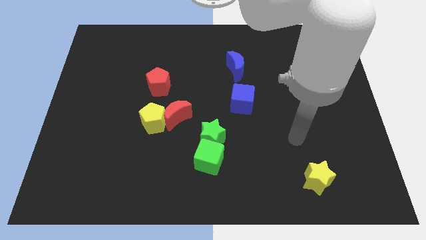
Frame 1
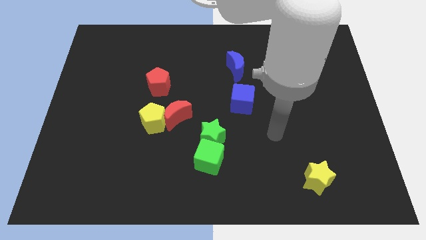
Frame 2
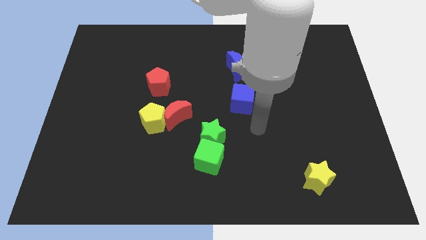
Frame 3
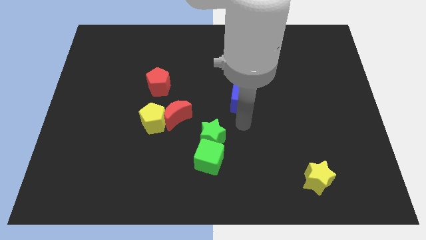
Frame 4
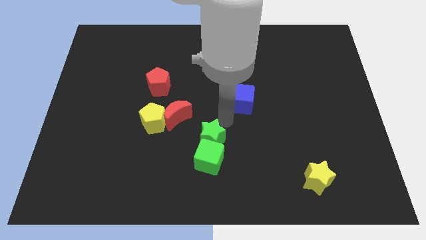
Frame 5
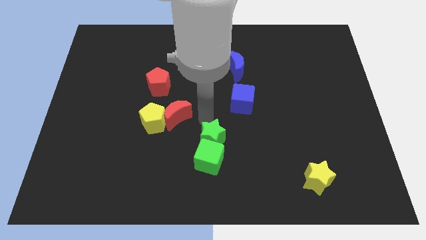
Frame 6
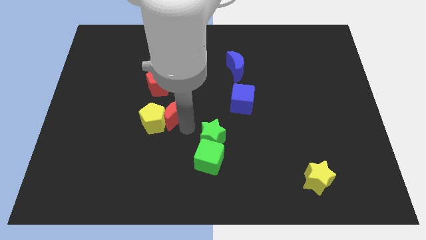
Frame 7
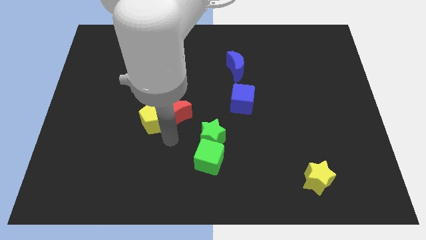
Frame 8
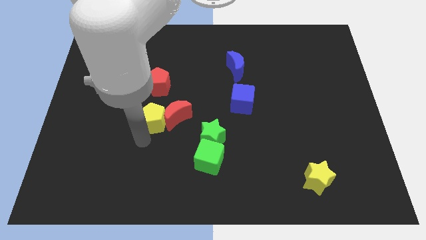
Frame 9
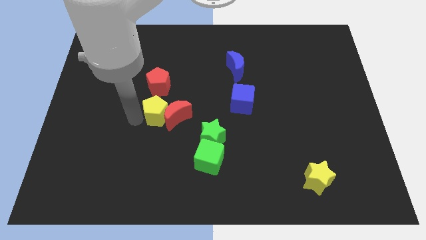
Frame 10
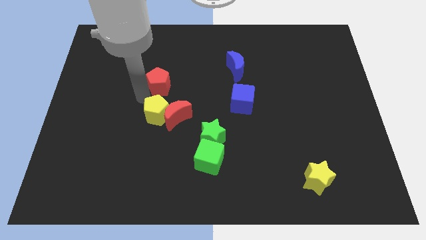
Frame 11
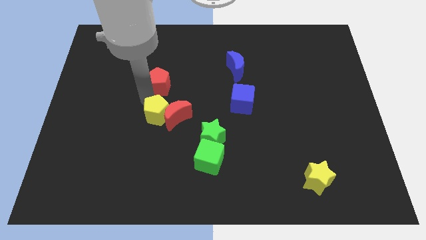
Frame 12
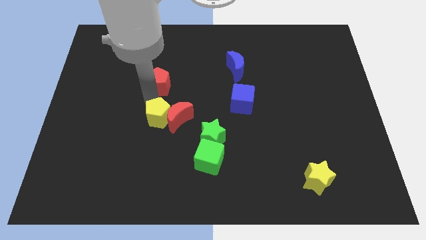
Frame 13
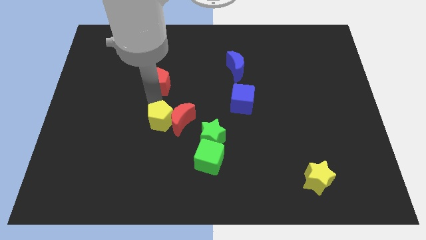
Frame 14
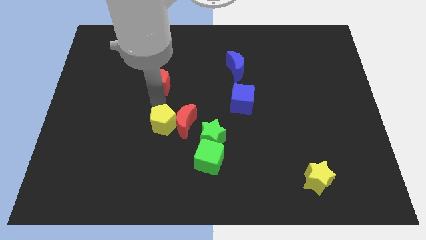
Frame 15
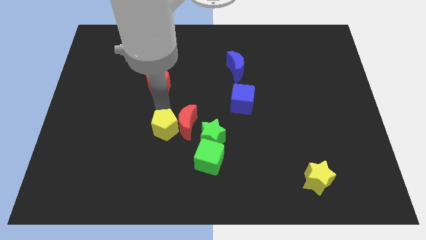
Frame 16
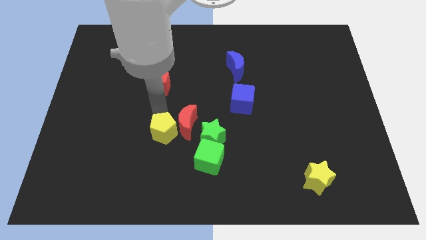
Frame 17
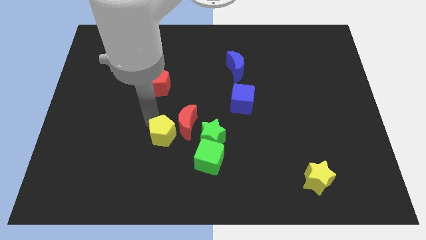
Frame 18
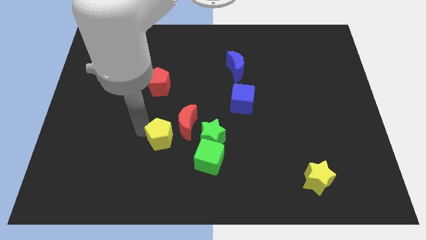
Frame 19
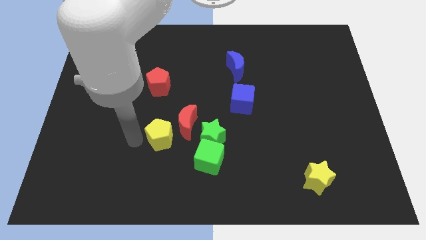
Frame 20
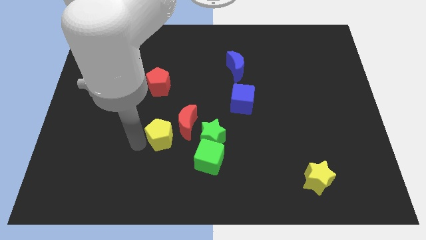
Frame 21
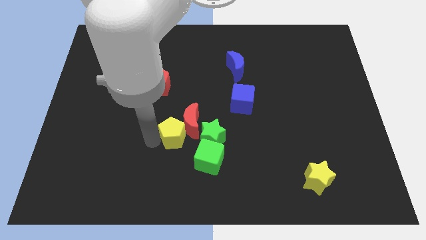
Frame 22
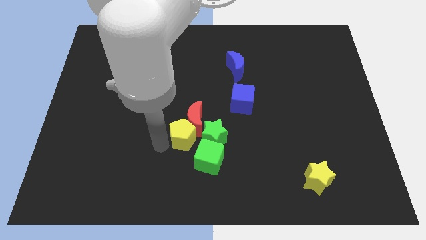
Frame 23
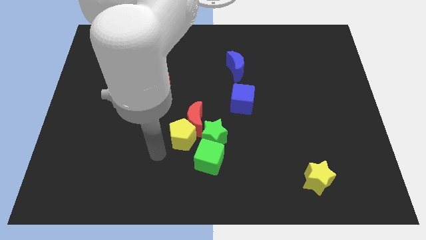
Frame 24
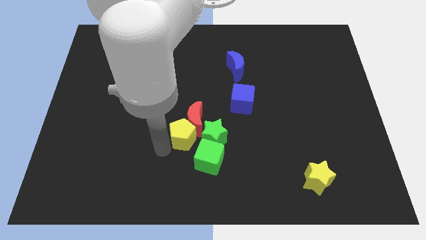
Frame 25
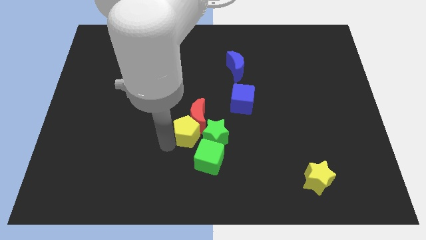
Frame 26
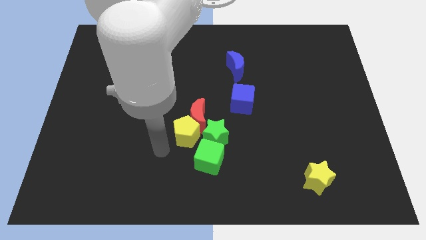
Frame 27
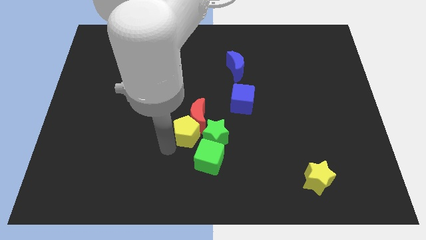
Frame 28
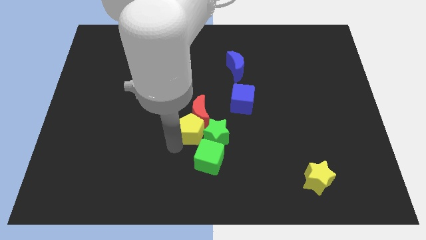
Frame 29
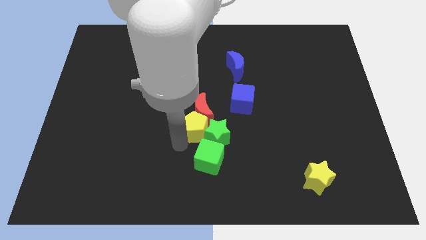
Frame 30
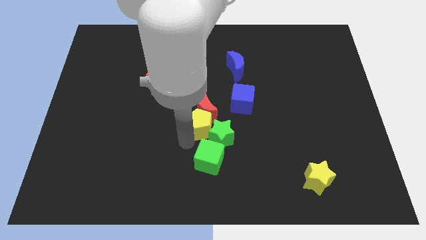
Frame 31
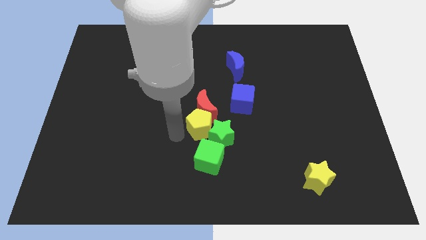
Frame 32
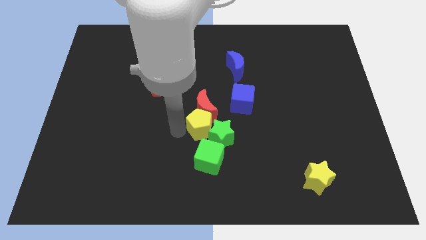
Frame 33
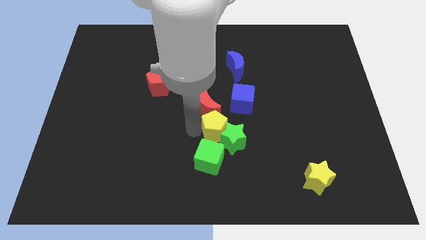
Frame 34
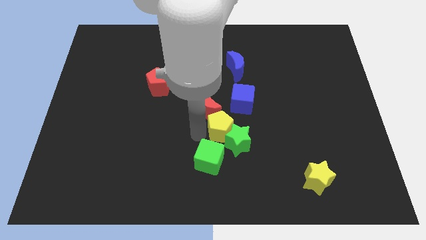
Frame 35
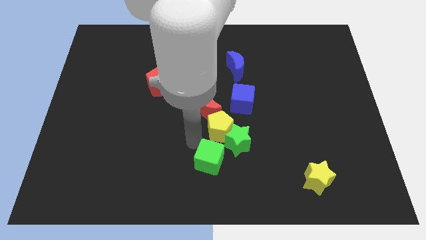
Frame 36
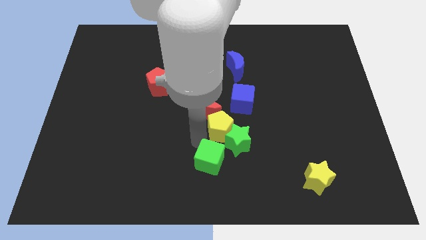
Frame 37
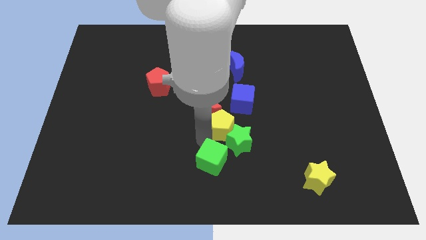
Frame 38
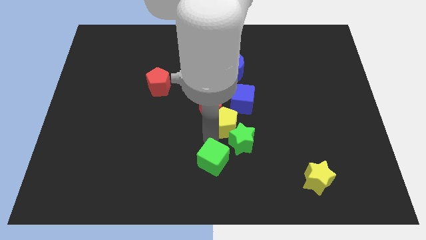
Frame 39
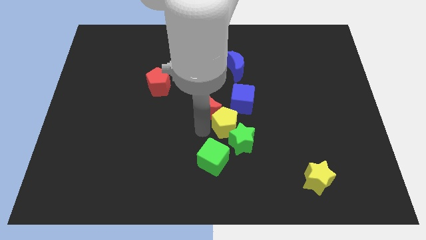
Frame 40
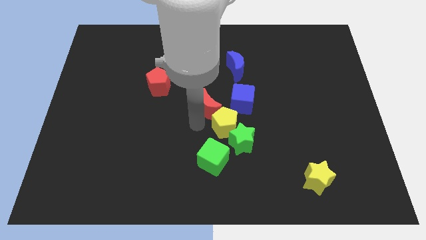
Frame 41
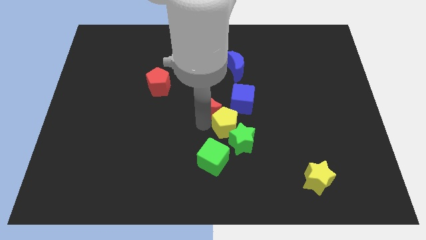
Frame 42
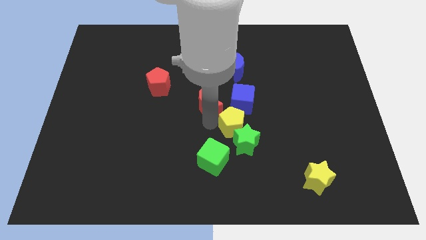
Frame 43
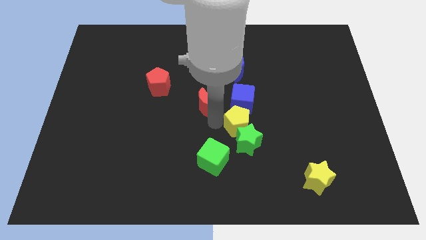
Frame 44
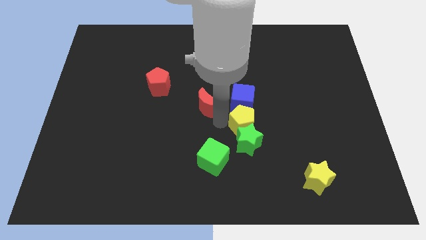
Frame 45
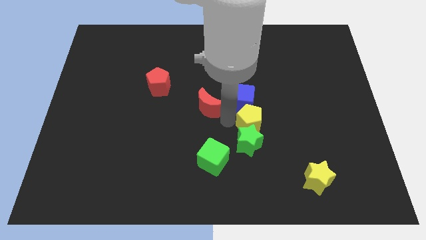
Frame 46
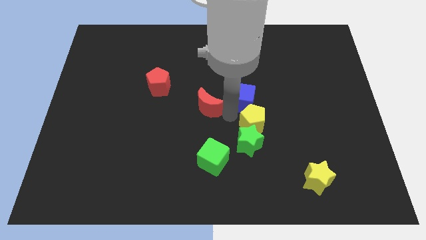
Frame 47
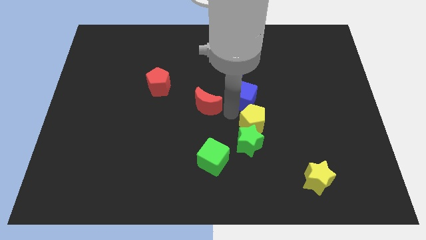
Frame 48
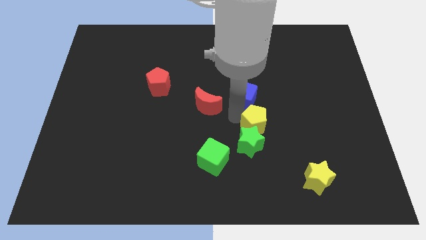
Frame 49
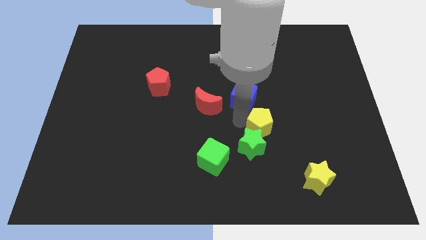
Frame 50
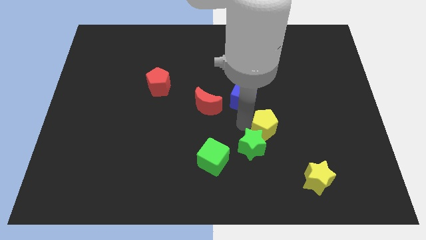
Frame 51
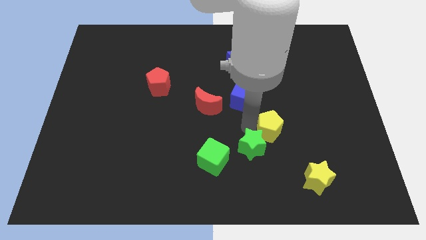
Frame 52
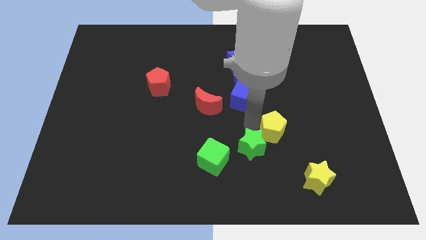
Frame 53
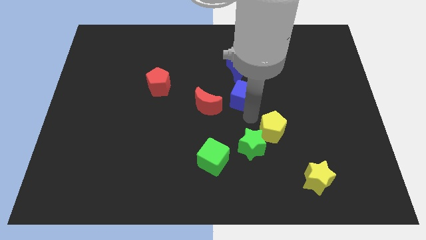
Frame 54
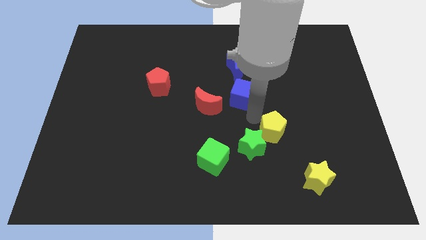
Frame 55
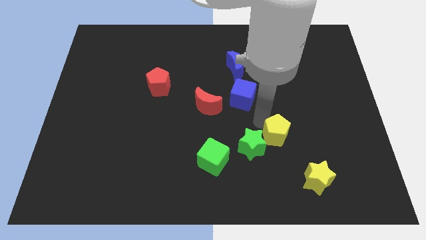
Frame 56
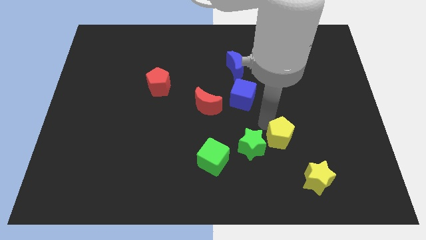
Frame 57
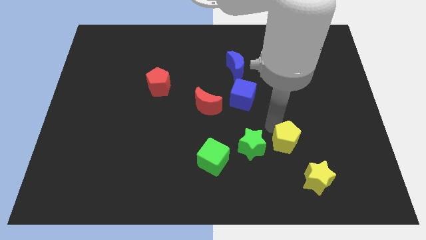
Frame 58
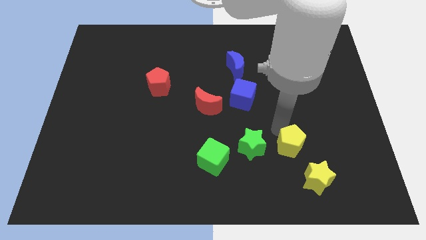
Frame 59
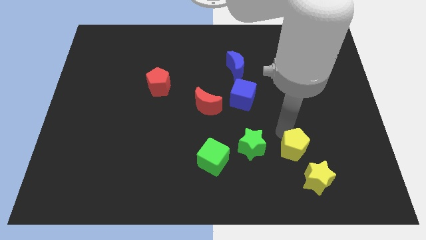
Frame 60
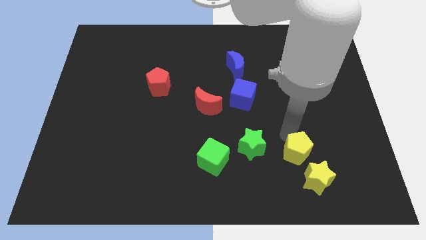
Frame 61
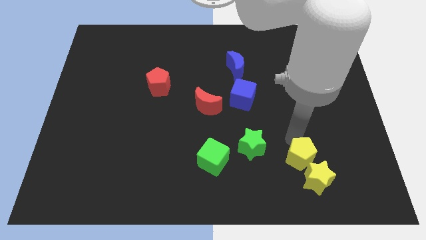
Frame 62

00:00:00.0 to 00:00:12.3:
move the yellow pentagon next to the yellow star
